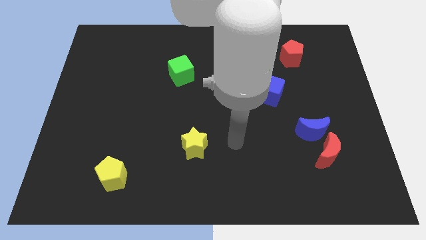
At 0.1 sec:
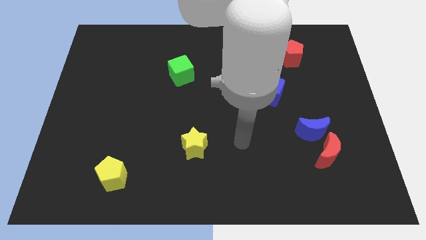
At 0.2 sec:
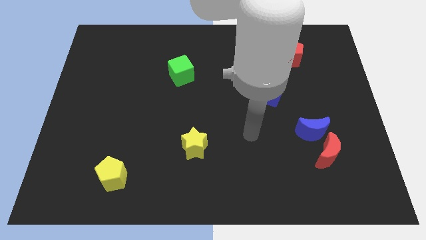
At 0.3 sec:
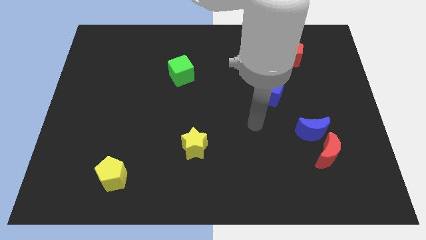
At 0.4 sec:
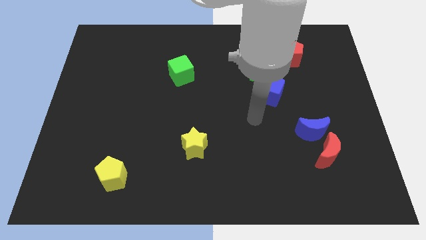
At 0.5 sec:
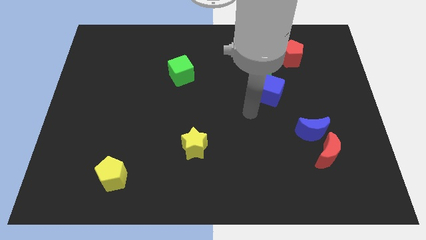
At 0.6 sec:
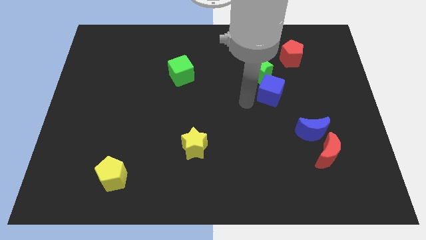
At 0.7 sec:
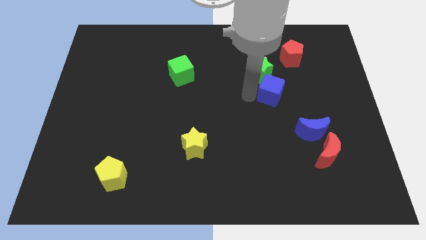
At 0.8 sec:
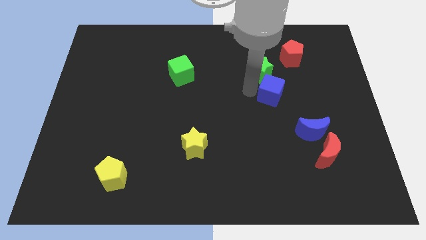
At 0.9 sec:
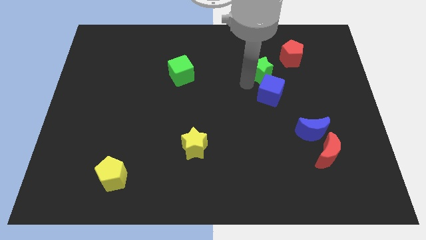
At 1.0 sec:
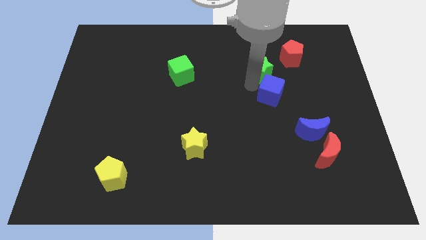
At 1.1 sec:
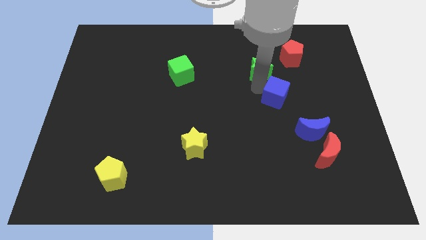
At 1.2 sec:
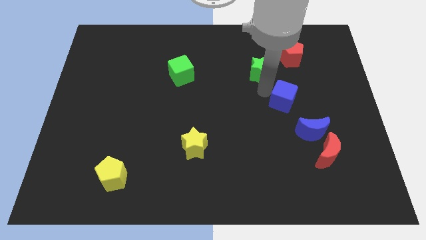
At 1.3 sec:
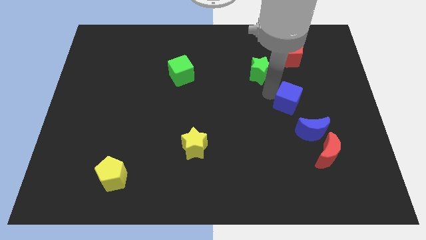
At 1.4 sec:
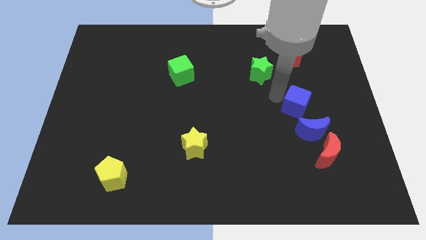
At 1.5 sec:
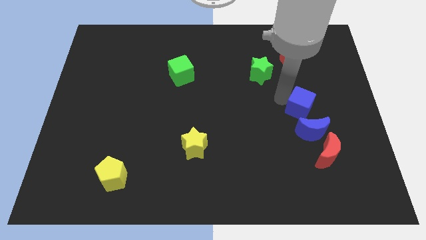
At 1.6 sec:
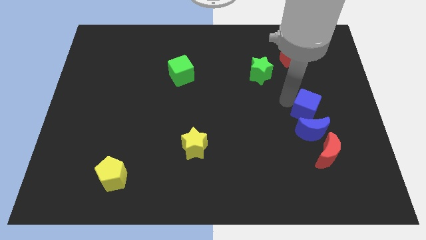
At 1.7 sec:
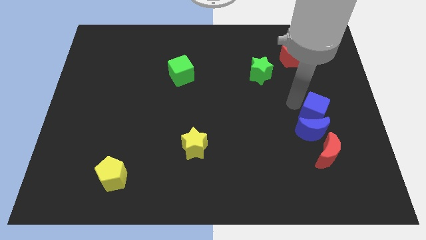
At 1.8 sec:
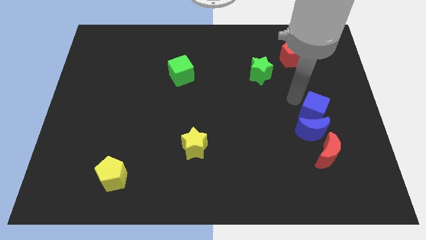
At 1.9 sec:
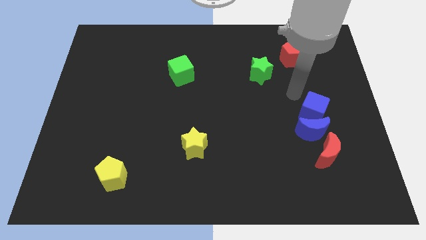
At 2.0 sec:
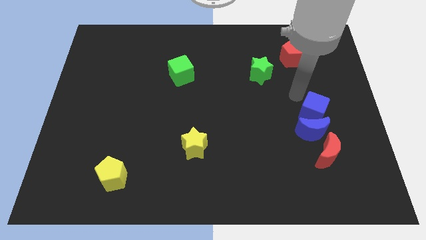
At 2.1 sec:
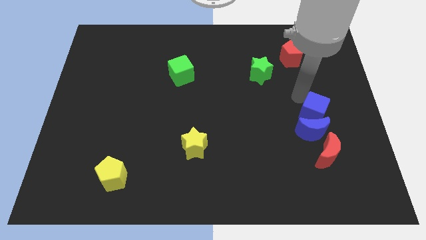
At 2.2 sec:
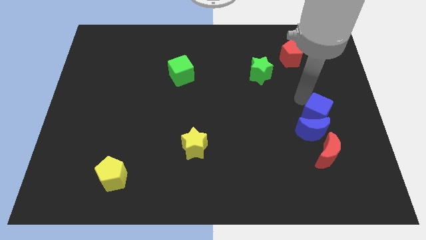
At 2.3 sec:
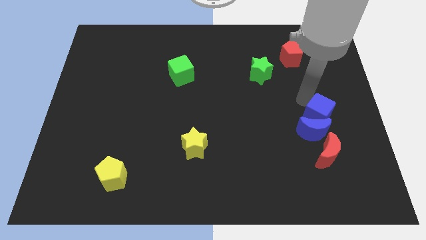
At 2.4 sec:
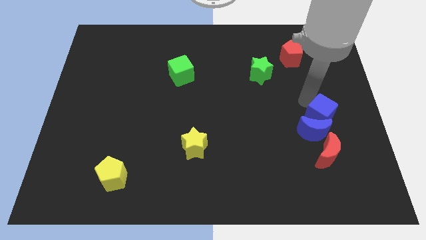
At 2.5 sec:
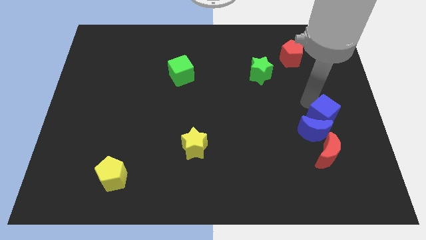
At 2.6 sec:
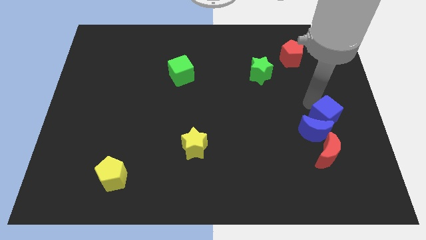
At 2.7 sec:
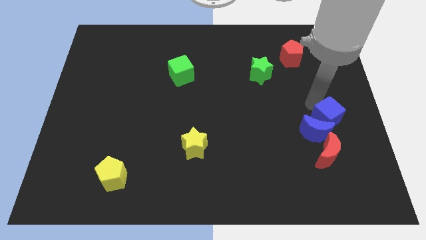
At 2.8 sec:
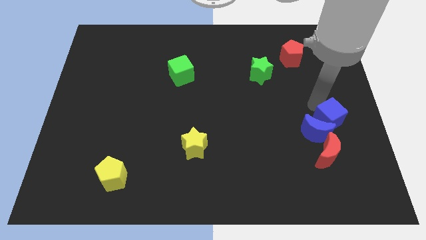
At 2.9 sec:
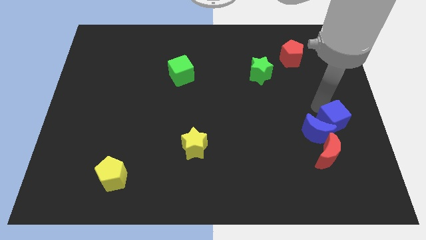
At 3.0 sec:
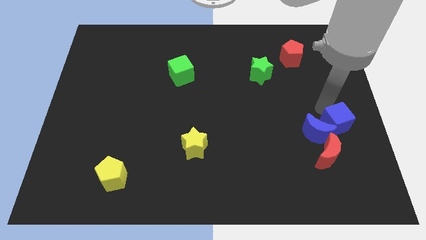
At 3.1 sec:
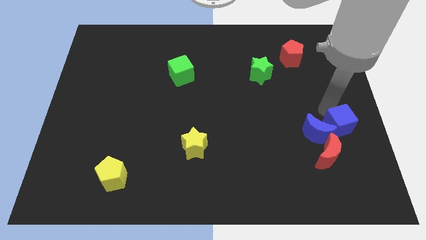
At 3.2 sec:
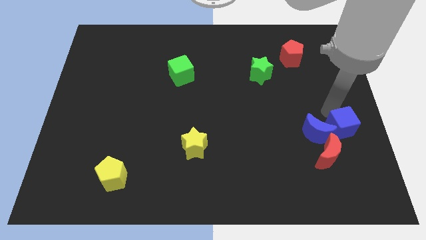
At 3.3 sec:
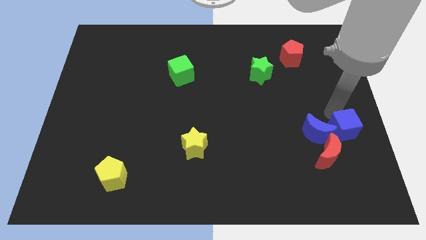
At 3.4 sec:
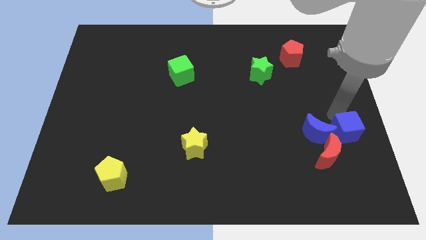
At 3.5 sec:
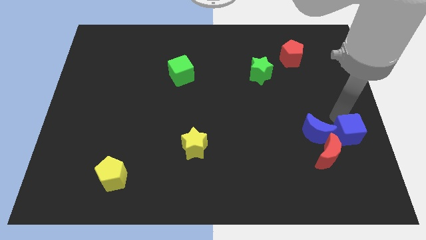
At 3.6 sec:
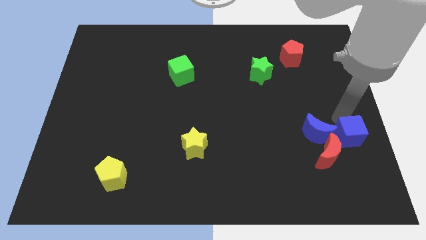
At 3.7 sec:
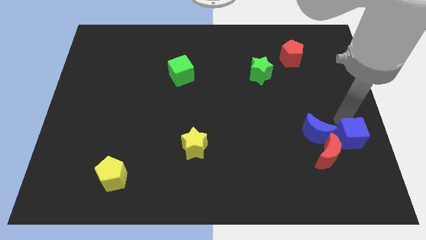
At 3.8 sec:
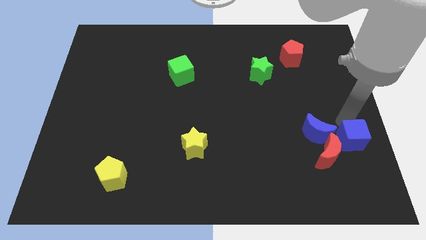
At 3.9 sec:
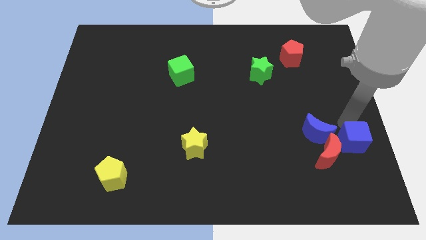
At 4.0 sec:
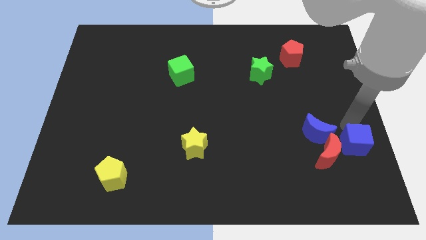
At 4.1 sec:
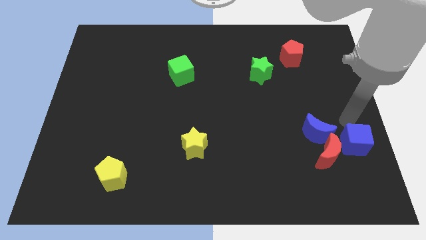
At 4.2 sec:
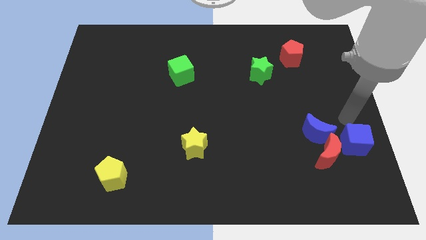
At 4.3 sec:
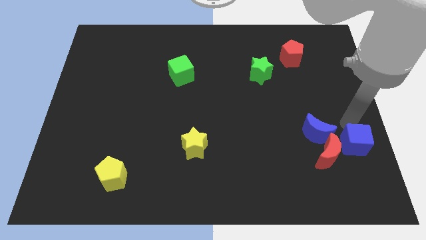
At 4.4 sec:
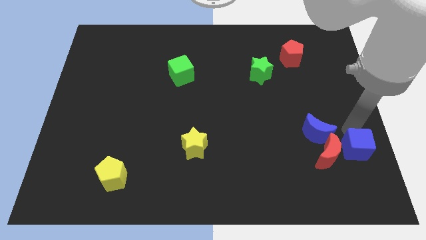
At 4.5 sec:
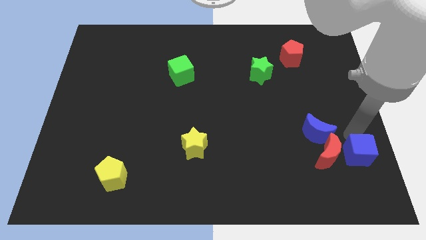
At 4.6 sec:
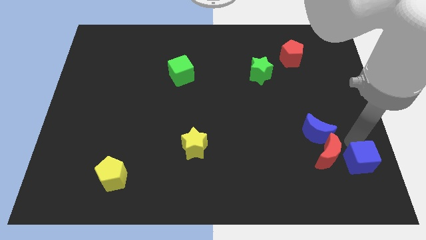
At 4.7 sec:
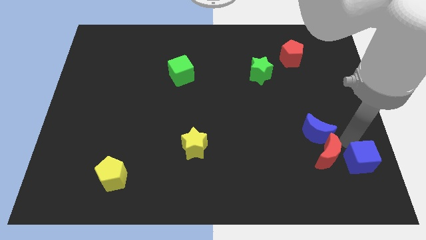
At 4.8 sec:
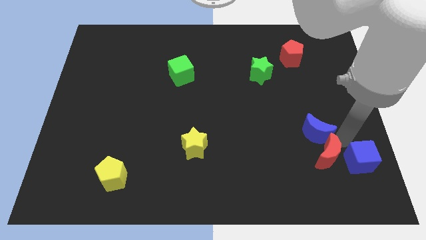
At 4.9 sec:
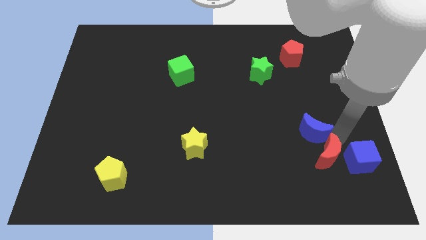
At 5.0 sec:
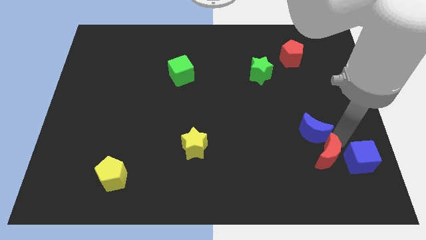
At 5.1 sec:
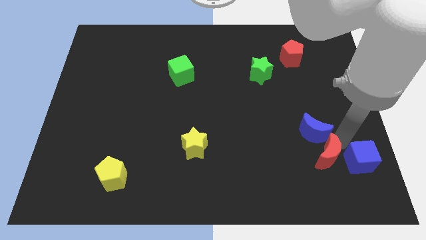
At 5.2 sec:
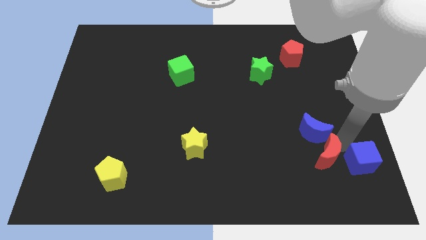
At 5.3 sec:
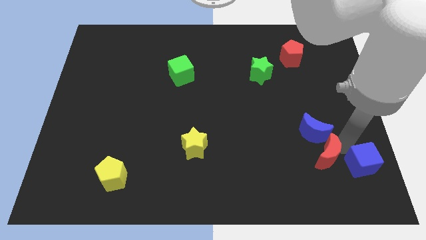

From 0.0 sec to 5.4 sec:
put the blue cube to the bottom right
